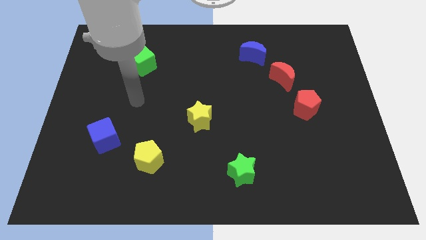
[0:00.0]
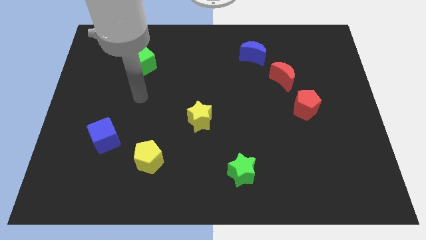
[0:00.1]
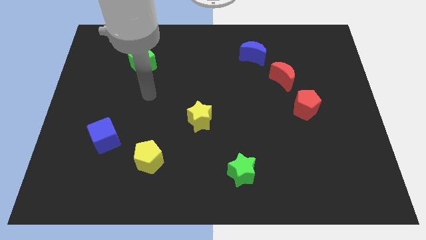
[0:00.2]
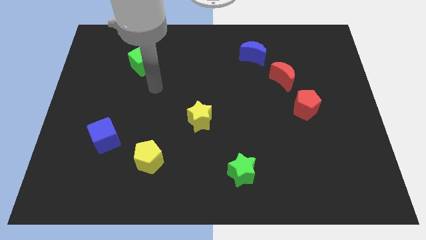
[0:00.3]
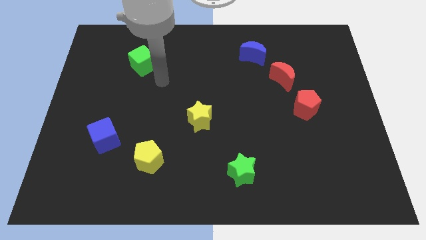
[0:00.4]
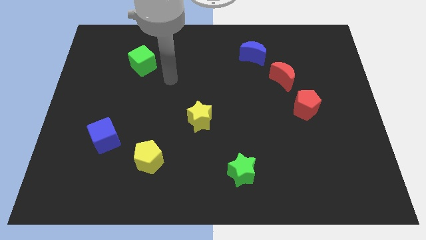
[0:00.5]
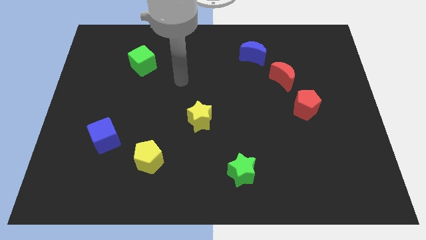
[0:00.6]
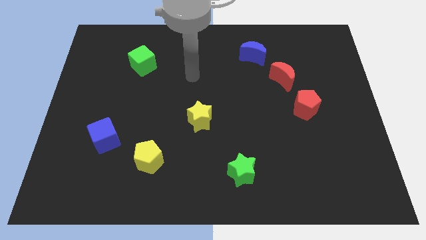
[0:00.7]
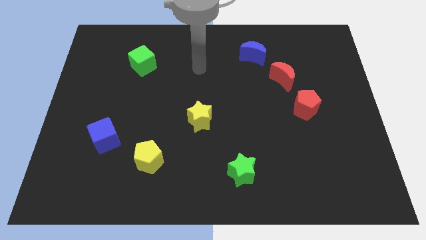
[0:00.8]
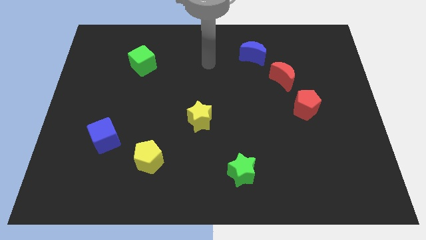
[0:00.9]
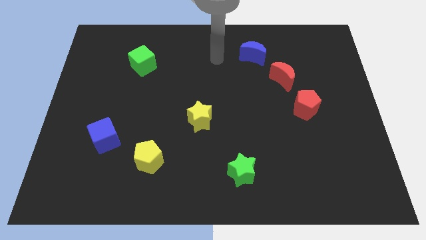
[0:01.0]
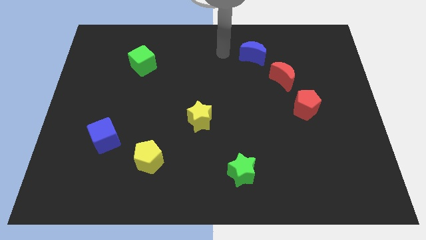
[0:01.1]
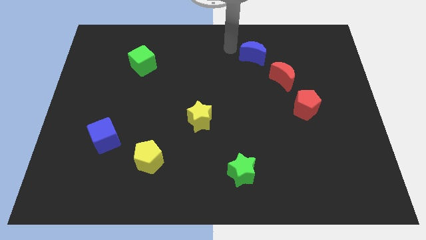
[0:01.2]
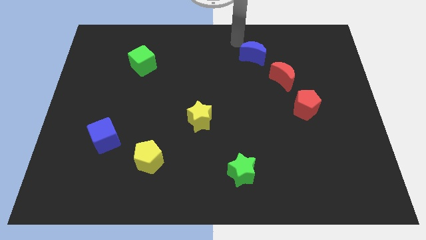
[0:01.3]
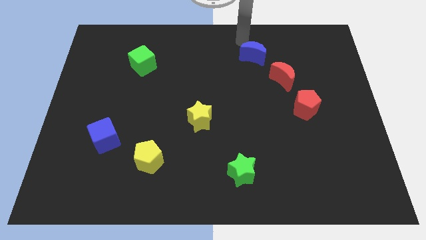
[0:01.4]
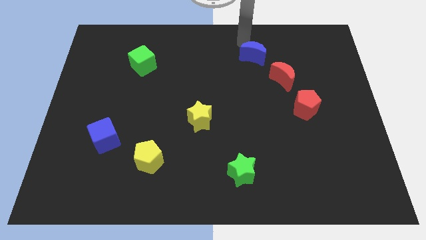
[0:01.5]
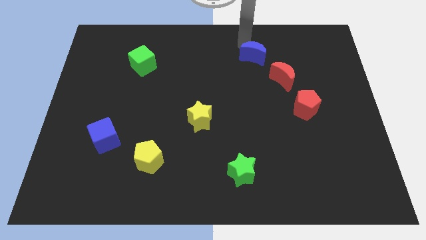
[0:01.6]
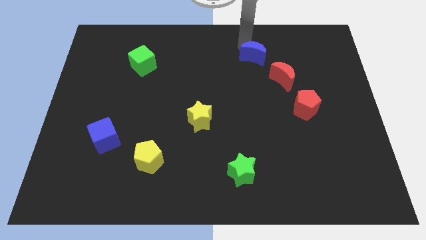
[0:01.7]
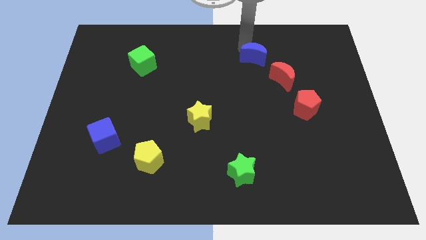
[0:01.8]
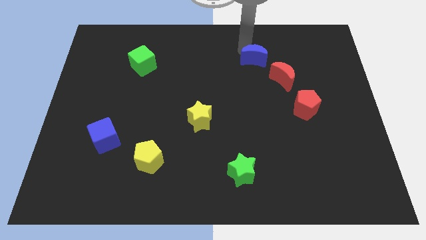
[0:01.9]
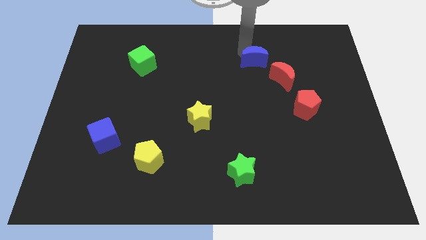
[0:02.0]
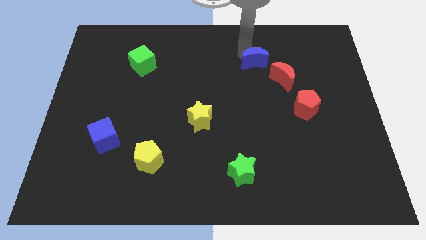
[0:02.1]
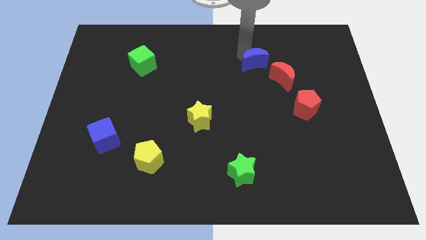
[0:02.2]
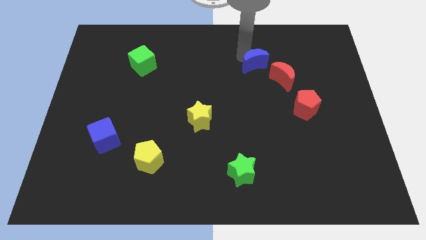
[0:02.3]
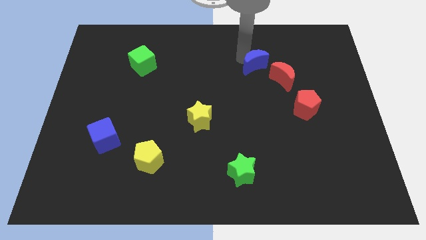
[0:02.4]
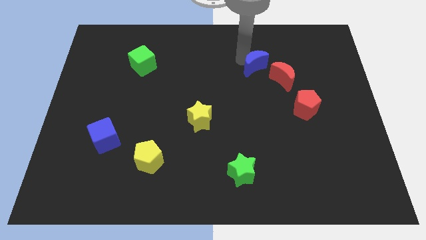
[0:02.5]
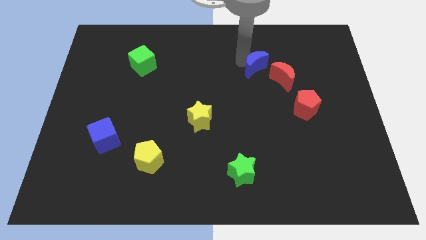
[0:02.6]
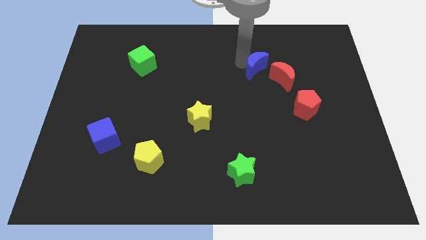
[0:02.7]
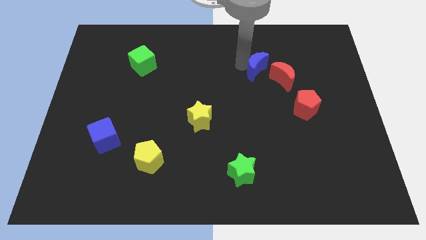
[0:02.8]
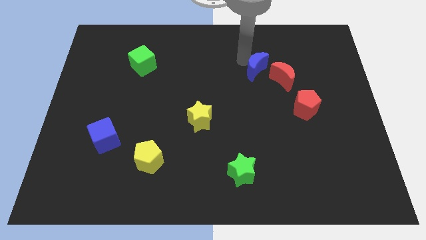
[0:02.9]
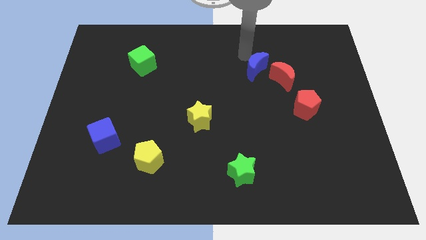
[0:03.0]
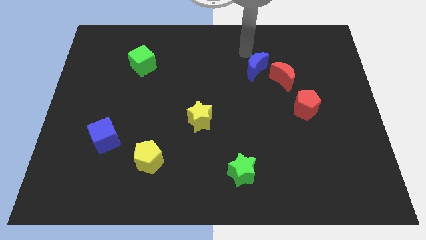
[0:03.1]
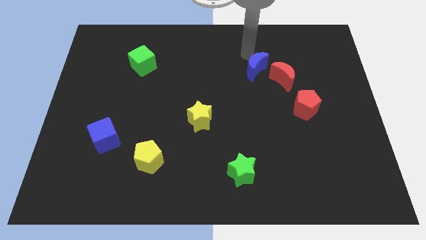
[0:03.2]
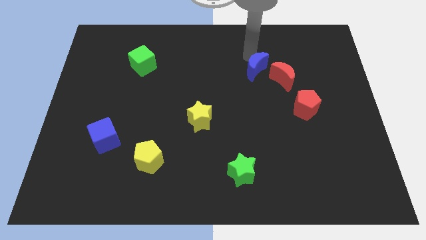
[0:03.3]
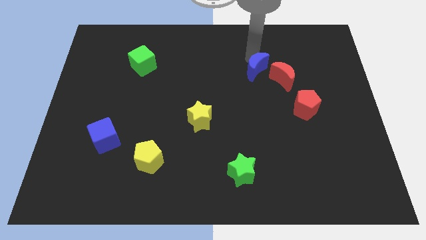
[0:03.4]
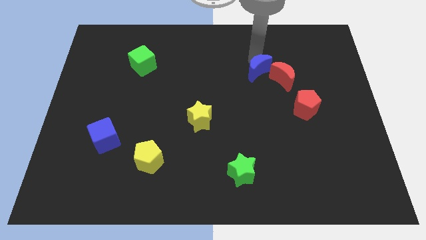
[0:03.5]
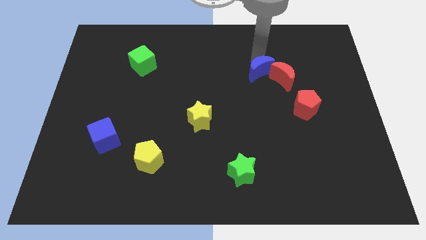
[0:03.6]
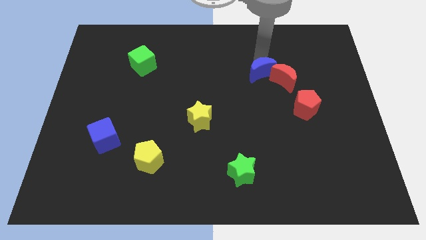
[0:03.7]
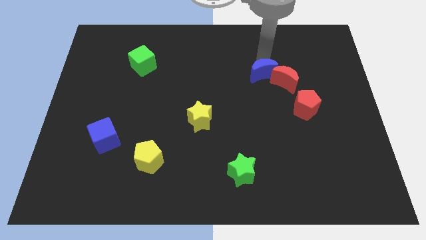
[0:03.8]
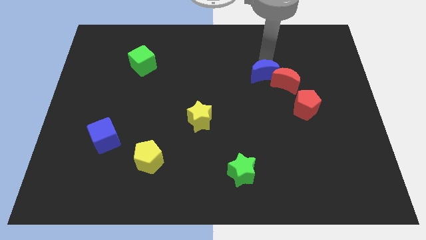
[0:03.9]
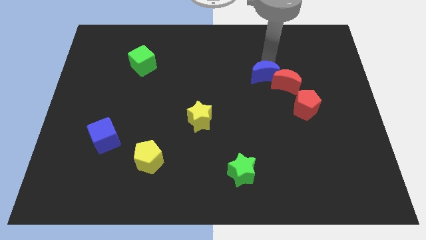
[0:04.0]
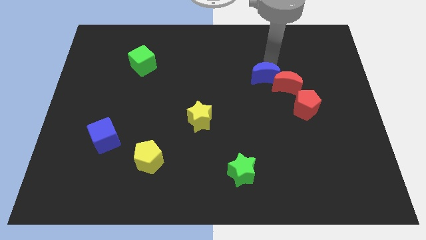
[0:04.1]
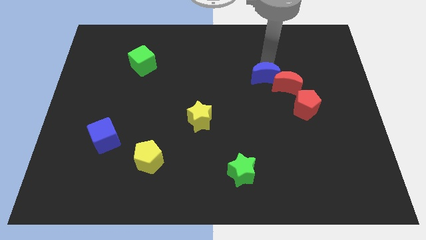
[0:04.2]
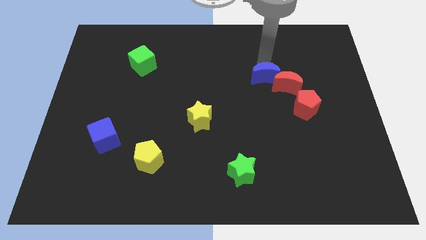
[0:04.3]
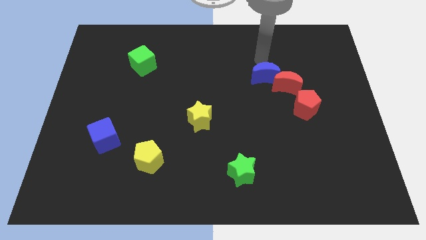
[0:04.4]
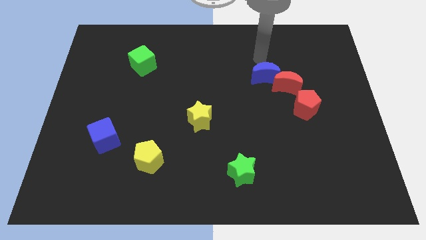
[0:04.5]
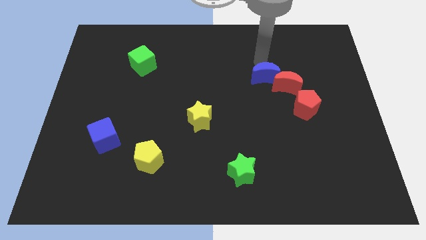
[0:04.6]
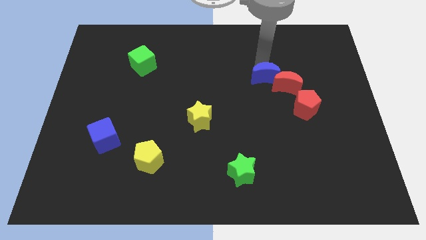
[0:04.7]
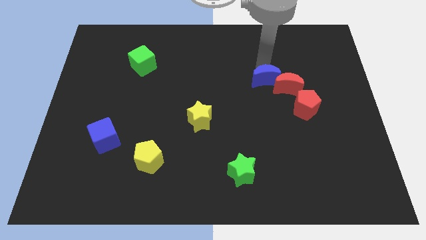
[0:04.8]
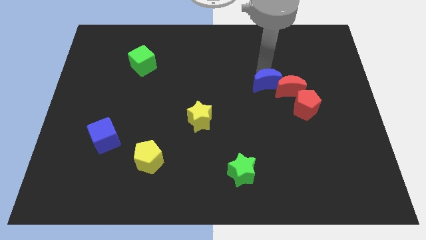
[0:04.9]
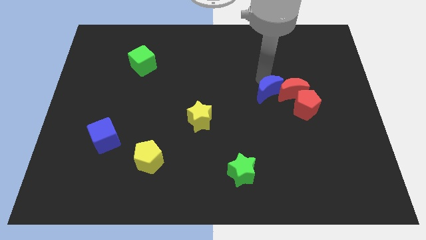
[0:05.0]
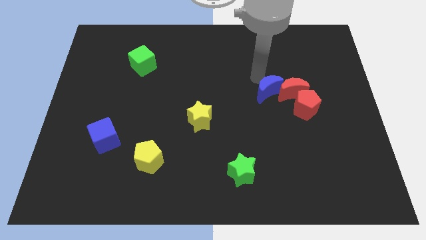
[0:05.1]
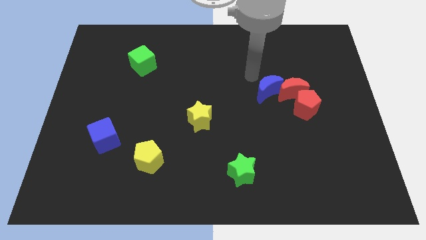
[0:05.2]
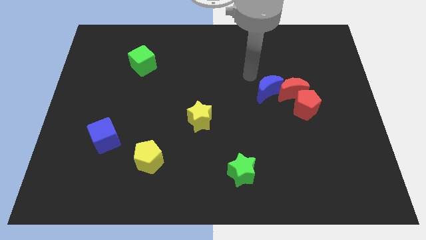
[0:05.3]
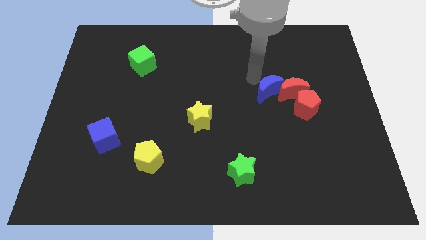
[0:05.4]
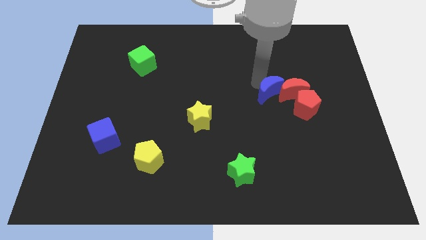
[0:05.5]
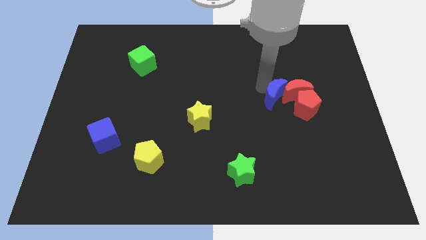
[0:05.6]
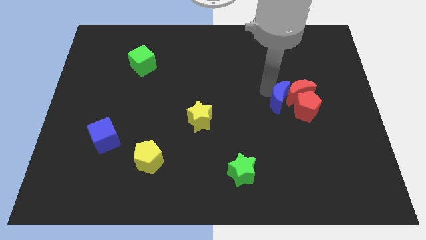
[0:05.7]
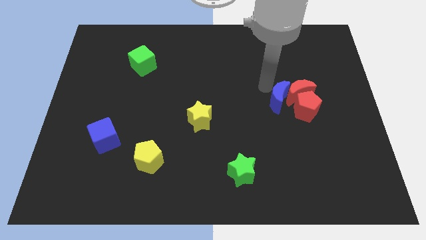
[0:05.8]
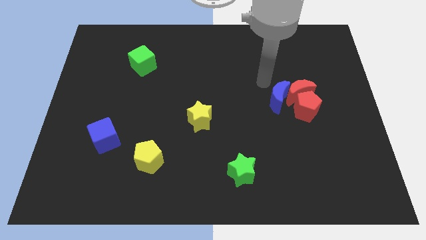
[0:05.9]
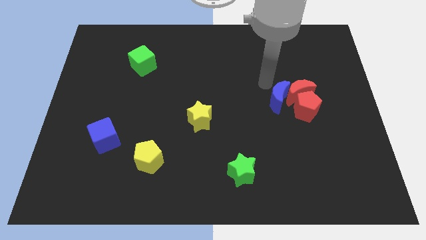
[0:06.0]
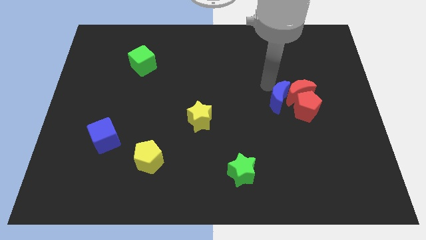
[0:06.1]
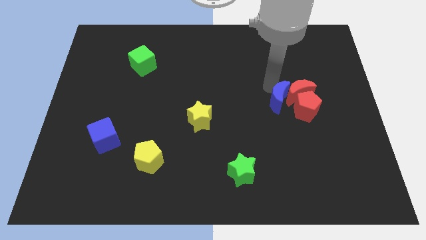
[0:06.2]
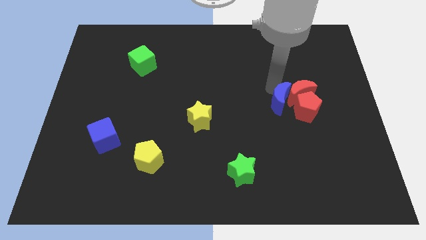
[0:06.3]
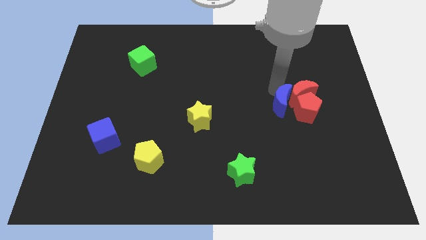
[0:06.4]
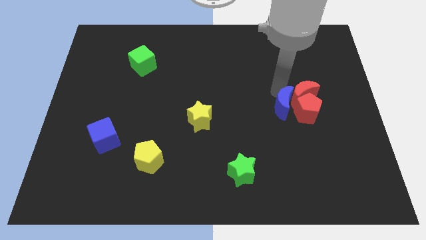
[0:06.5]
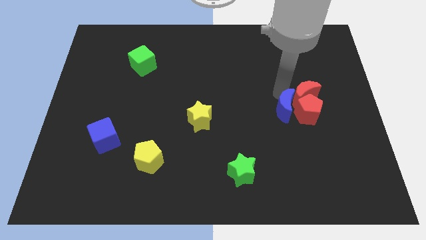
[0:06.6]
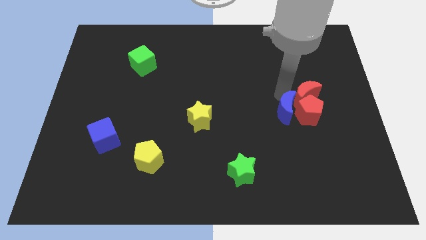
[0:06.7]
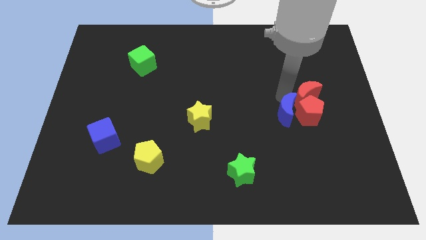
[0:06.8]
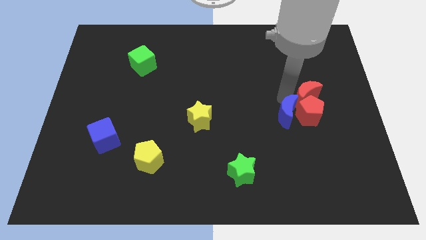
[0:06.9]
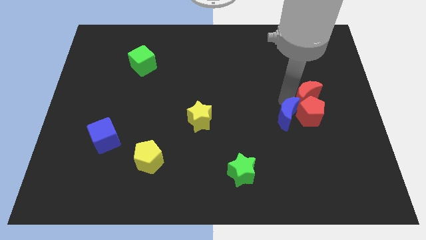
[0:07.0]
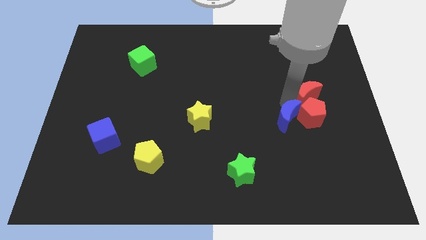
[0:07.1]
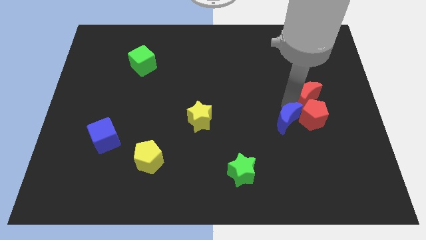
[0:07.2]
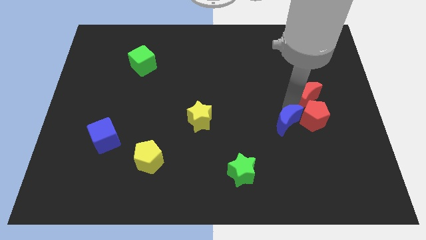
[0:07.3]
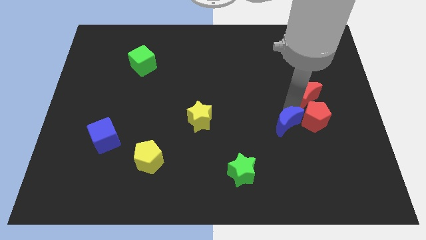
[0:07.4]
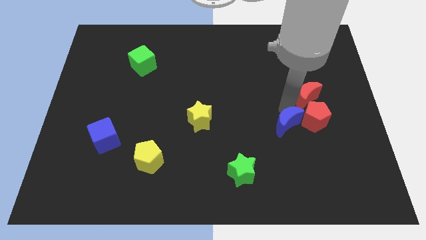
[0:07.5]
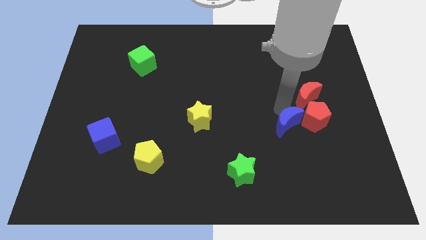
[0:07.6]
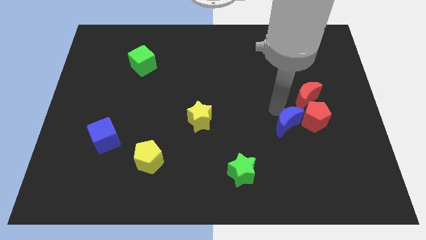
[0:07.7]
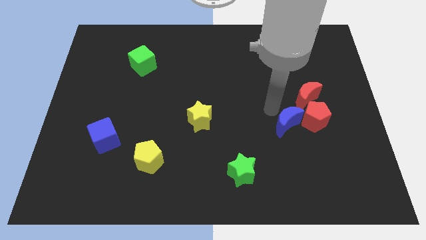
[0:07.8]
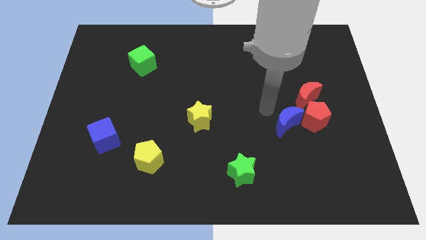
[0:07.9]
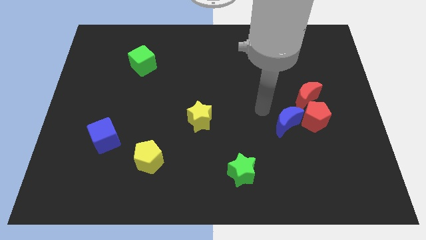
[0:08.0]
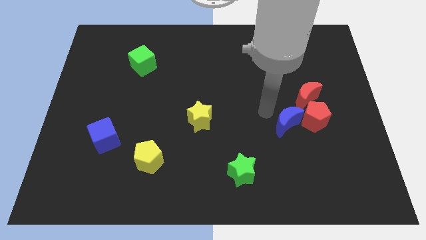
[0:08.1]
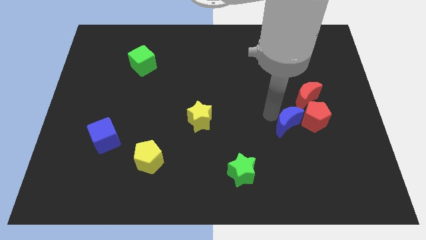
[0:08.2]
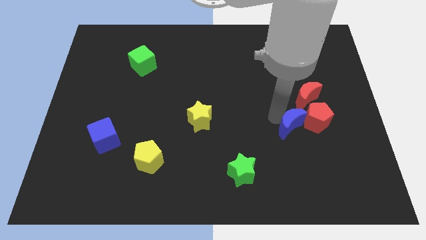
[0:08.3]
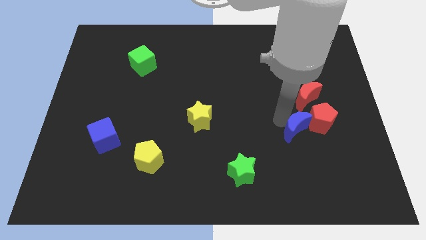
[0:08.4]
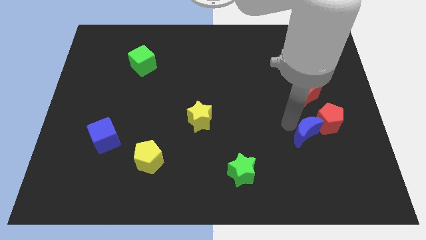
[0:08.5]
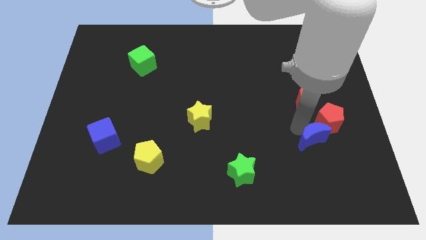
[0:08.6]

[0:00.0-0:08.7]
slide the blue moon to the bottom of the red pentagon
